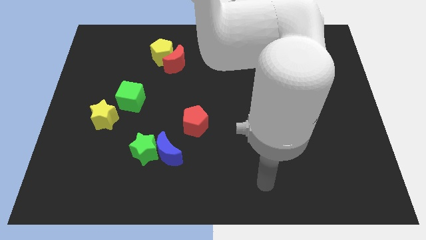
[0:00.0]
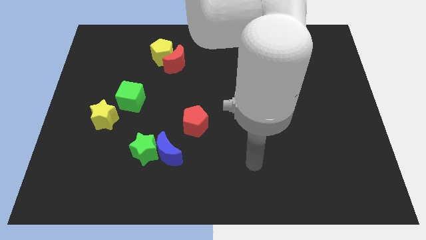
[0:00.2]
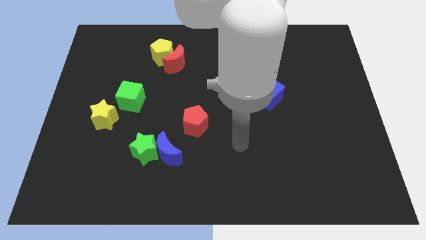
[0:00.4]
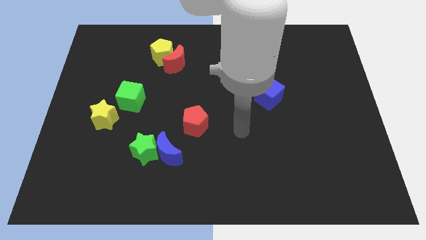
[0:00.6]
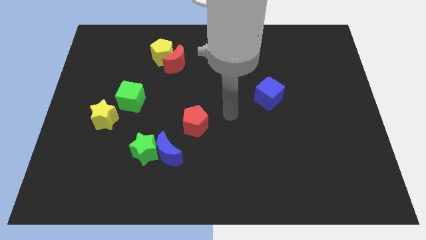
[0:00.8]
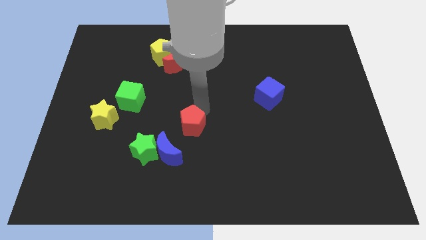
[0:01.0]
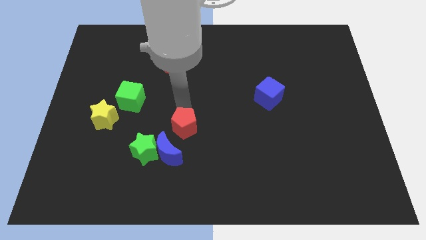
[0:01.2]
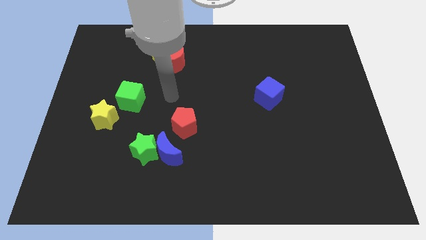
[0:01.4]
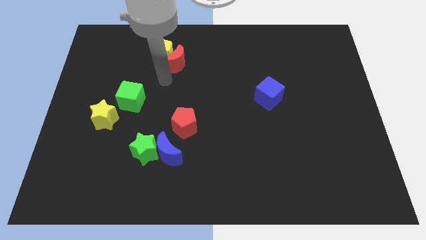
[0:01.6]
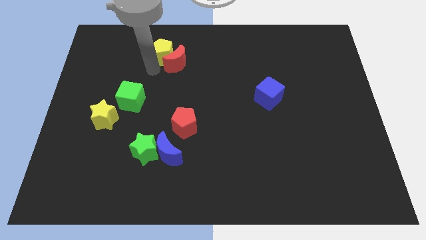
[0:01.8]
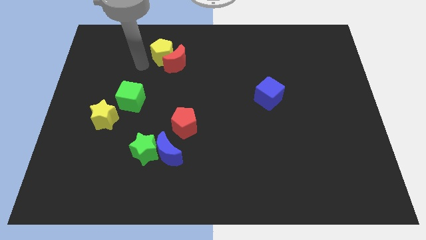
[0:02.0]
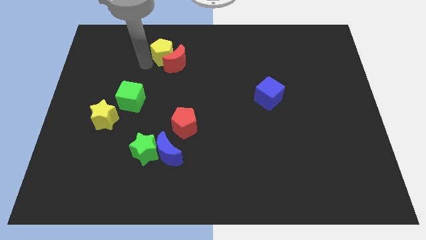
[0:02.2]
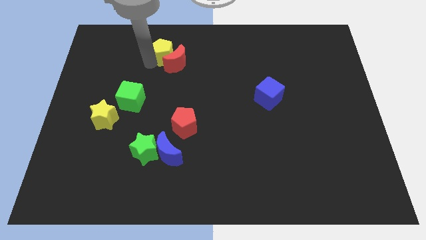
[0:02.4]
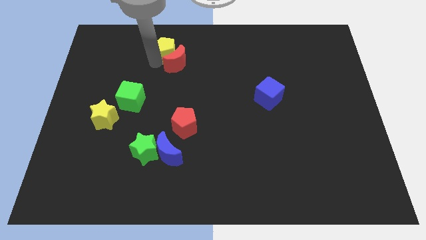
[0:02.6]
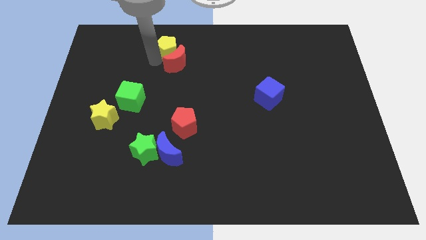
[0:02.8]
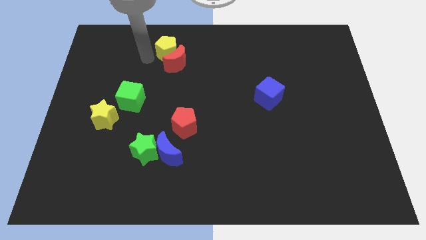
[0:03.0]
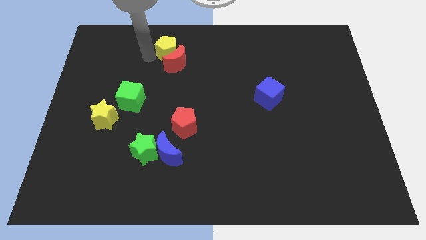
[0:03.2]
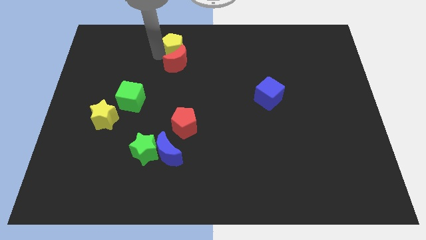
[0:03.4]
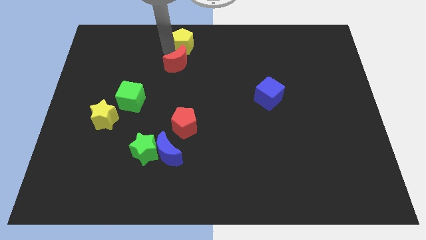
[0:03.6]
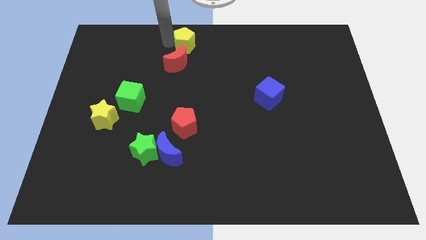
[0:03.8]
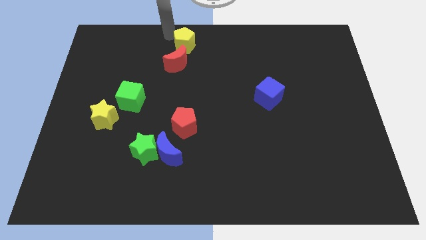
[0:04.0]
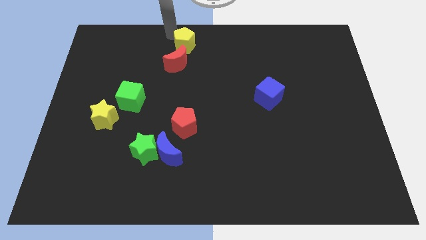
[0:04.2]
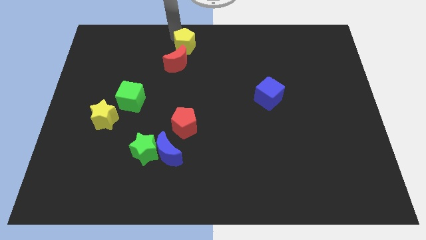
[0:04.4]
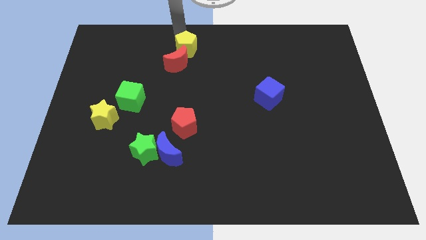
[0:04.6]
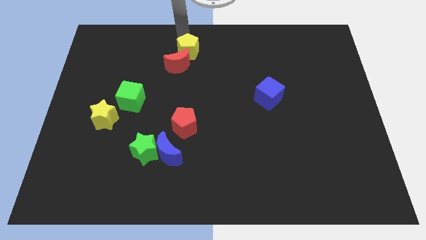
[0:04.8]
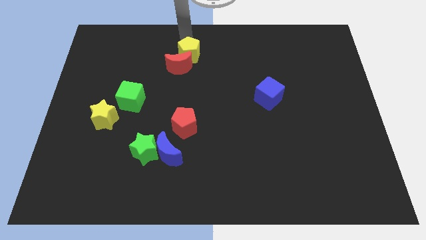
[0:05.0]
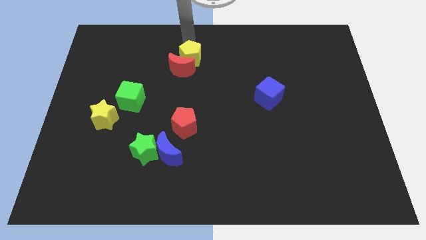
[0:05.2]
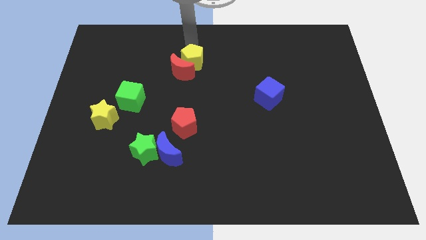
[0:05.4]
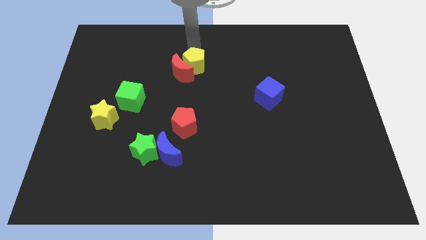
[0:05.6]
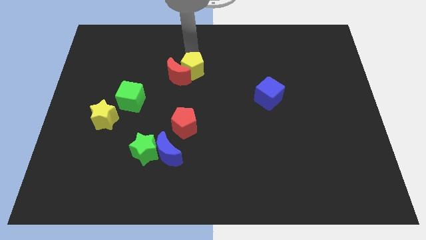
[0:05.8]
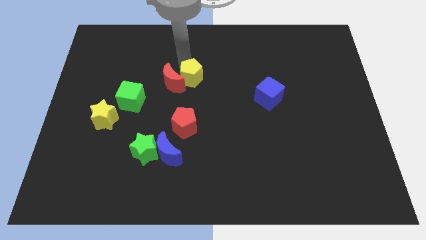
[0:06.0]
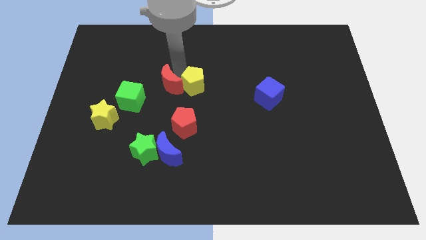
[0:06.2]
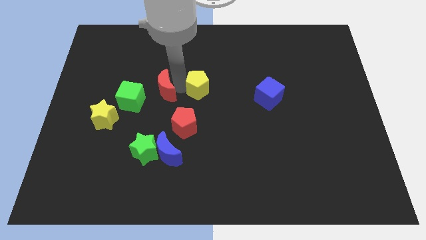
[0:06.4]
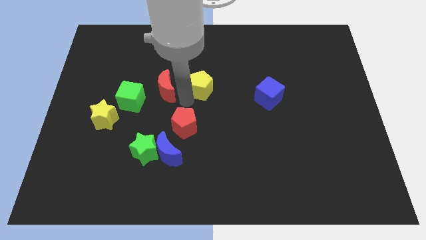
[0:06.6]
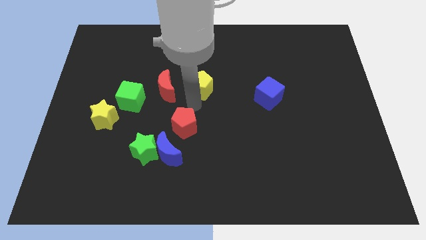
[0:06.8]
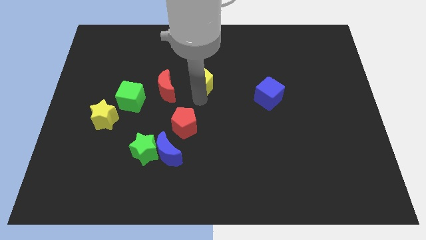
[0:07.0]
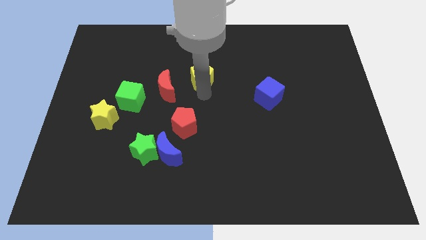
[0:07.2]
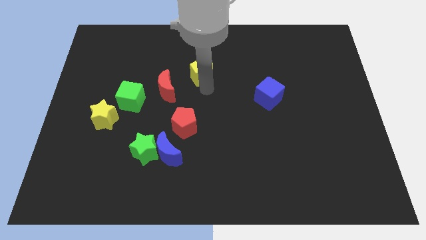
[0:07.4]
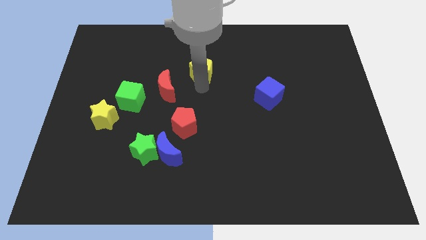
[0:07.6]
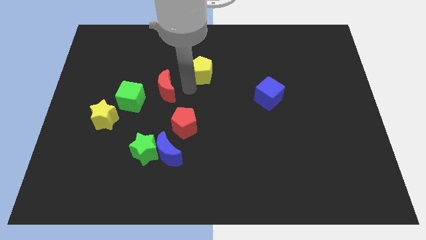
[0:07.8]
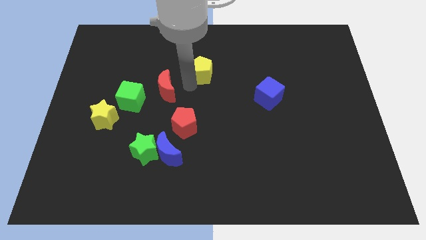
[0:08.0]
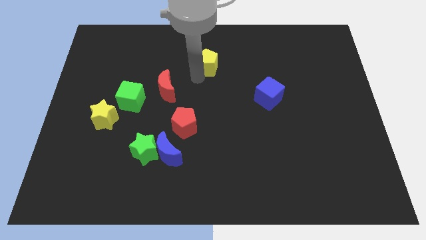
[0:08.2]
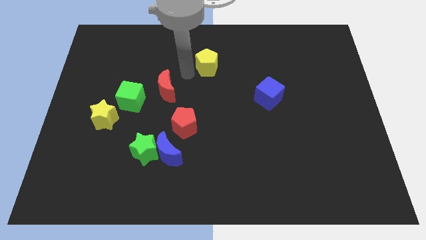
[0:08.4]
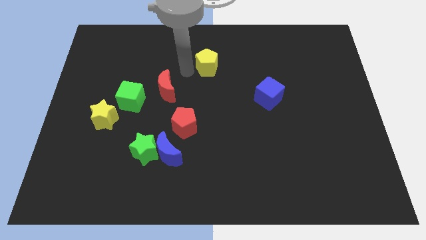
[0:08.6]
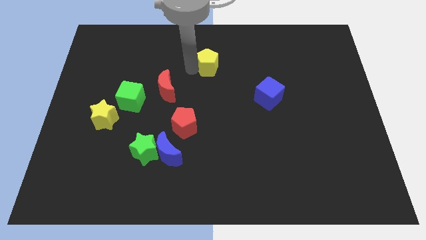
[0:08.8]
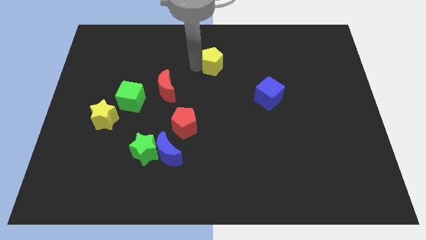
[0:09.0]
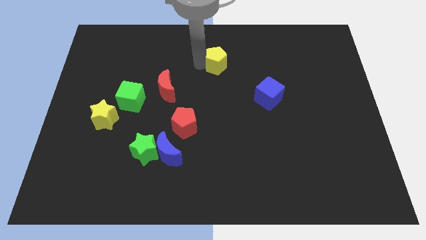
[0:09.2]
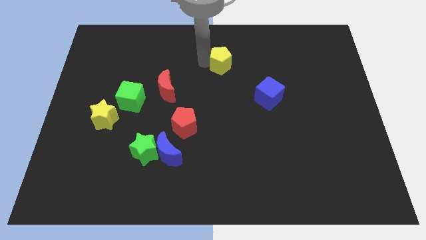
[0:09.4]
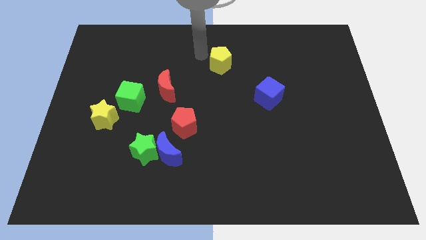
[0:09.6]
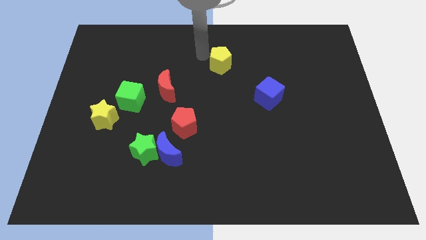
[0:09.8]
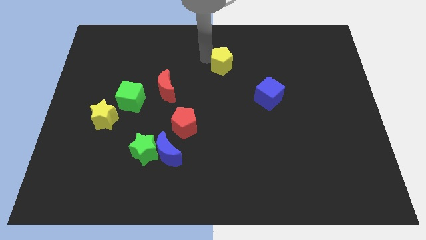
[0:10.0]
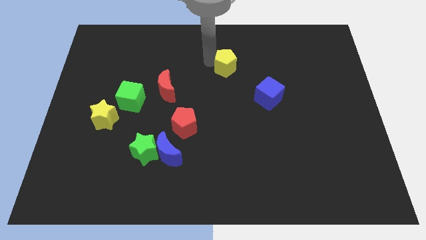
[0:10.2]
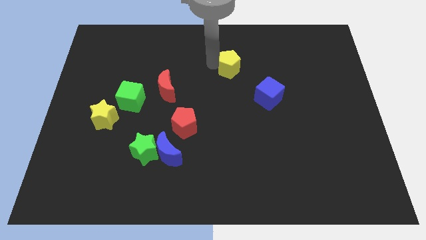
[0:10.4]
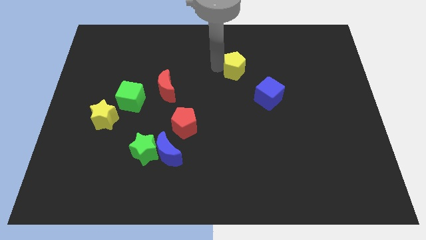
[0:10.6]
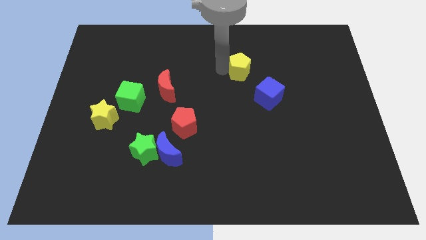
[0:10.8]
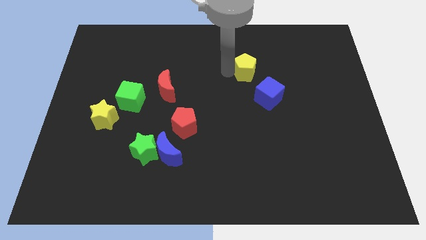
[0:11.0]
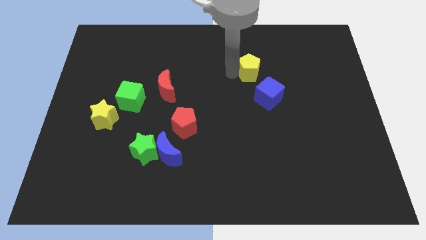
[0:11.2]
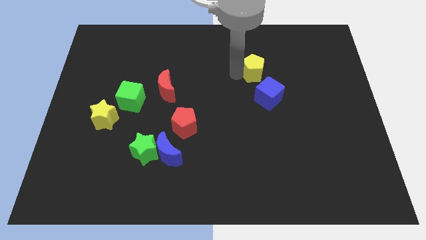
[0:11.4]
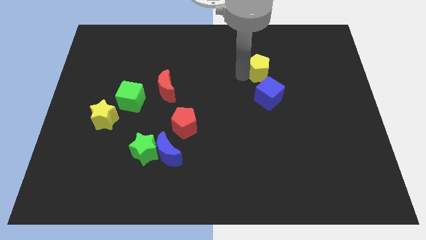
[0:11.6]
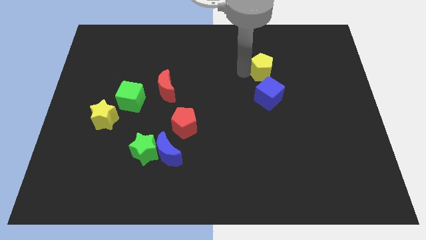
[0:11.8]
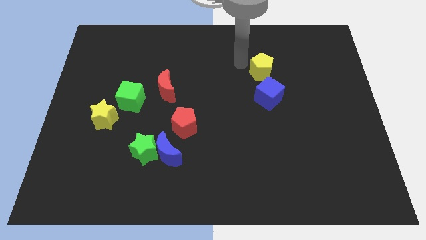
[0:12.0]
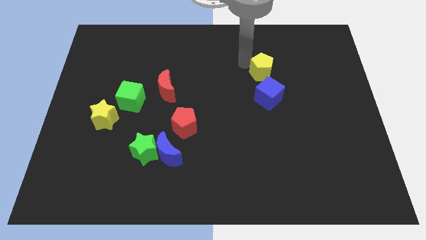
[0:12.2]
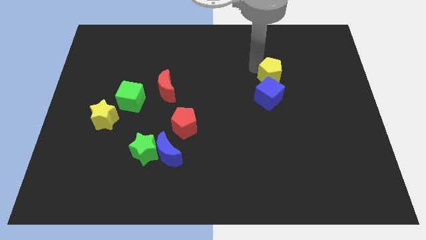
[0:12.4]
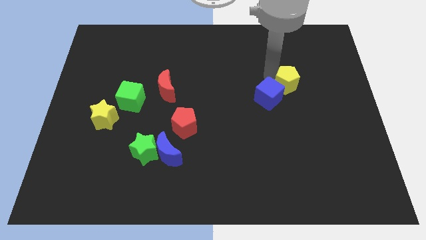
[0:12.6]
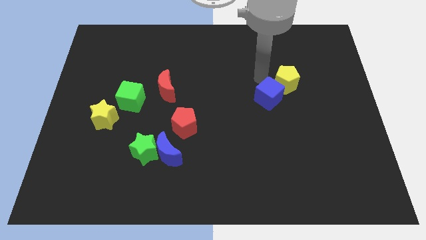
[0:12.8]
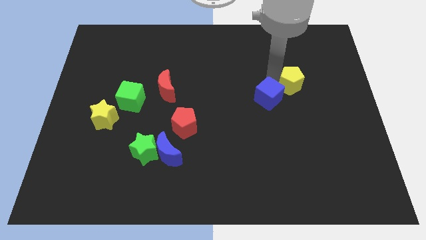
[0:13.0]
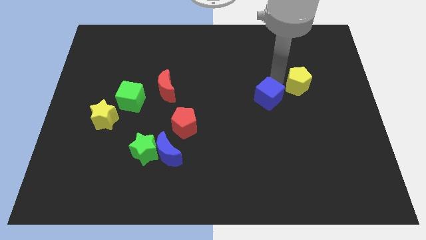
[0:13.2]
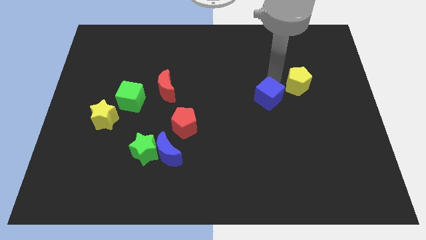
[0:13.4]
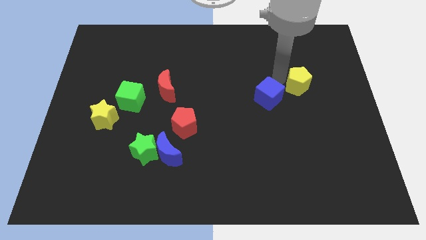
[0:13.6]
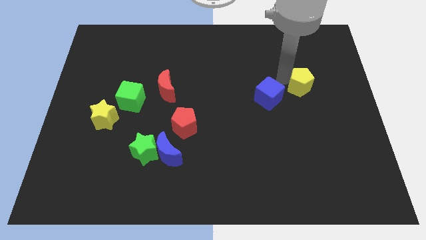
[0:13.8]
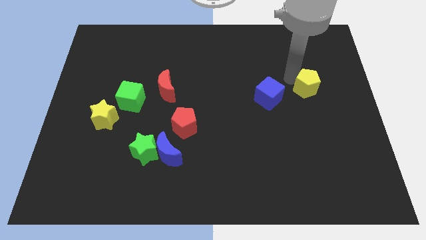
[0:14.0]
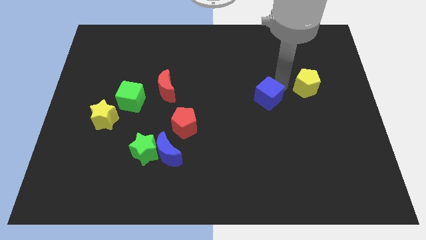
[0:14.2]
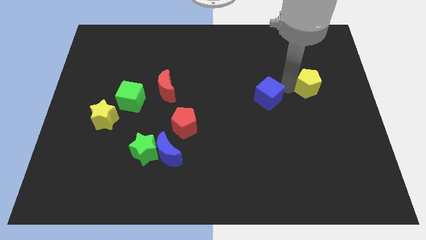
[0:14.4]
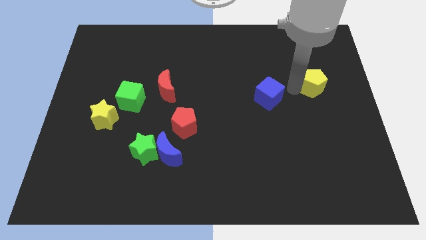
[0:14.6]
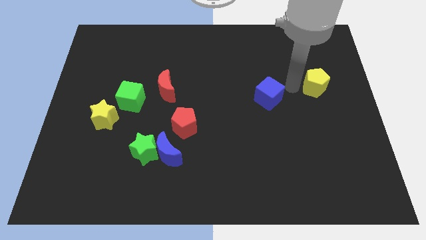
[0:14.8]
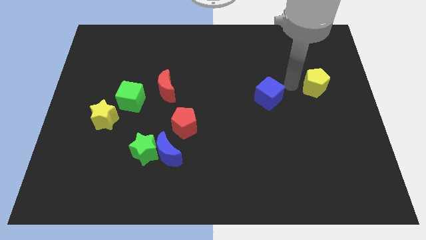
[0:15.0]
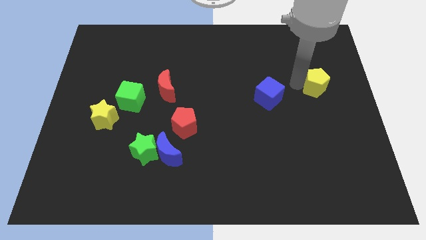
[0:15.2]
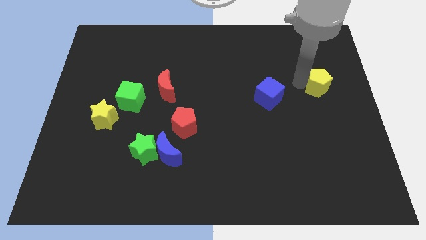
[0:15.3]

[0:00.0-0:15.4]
push the yellow pentagon to the right side
